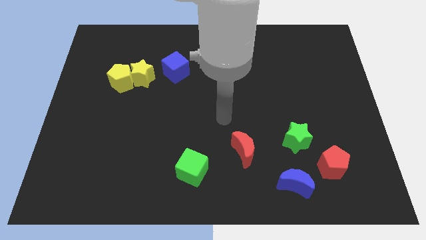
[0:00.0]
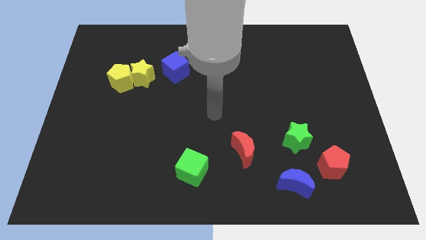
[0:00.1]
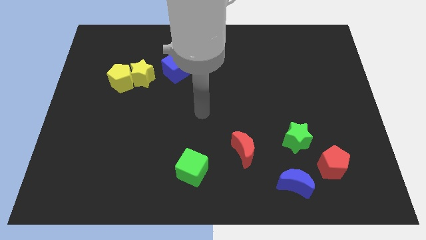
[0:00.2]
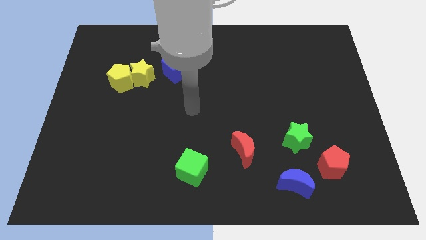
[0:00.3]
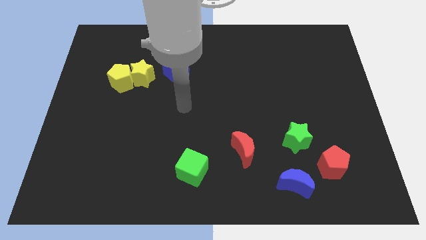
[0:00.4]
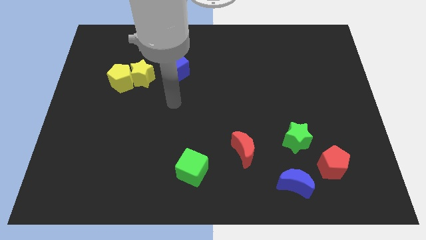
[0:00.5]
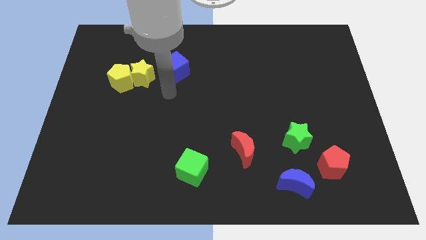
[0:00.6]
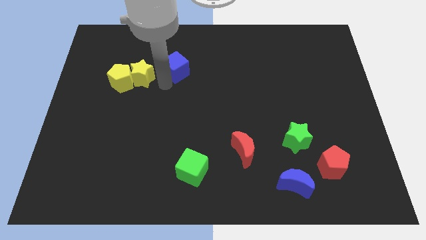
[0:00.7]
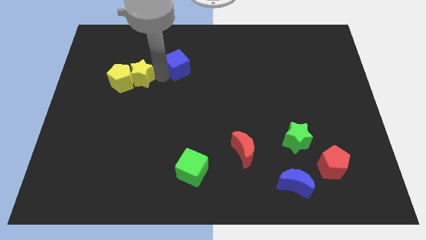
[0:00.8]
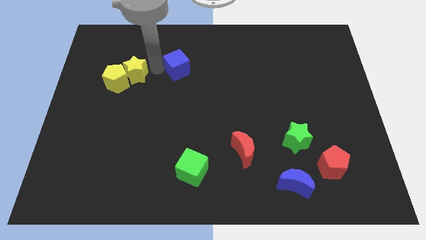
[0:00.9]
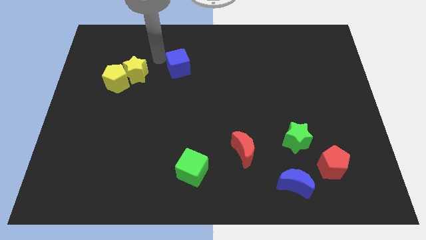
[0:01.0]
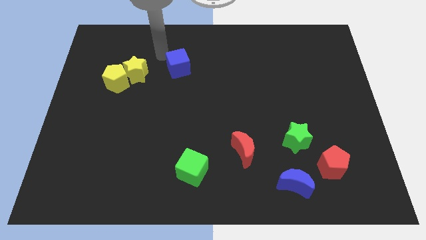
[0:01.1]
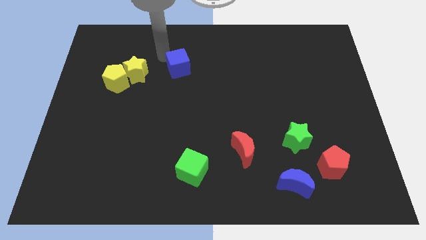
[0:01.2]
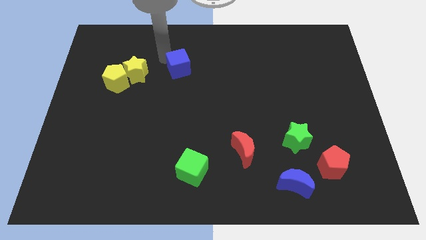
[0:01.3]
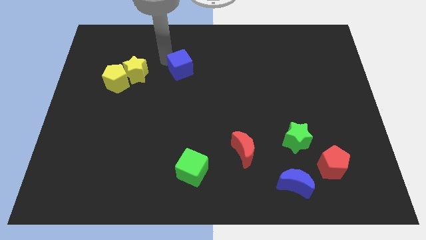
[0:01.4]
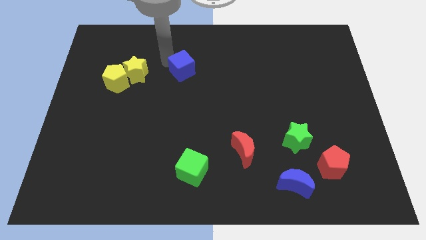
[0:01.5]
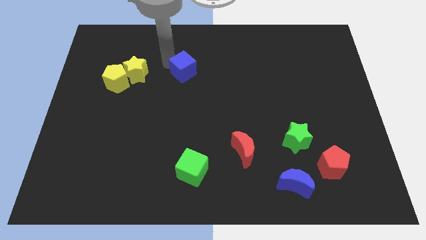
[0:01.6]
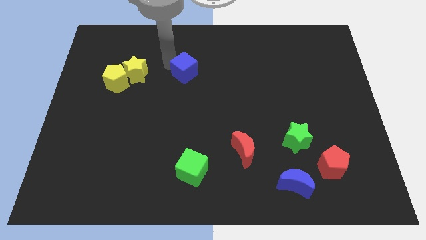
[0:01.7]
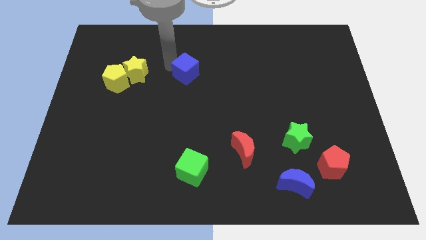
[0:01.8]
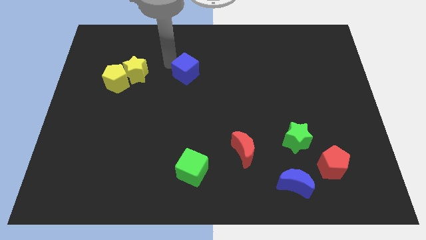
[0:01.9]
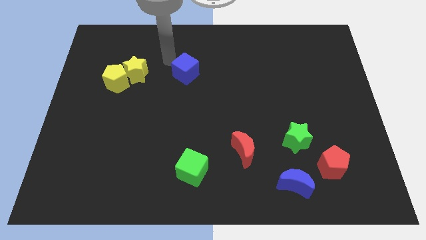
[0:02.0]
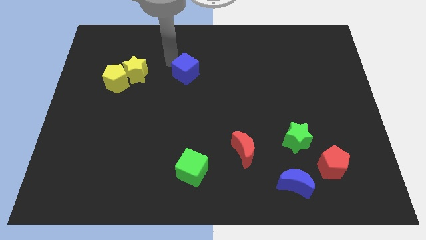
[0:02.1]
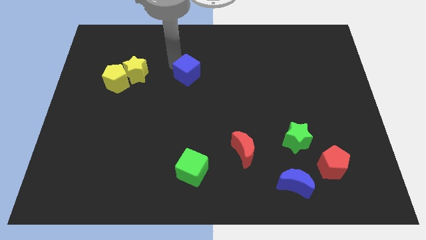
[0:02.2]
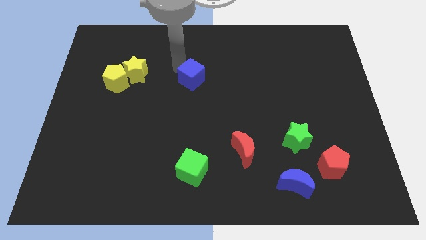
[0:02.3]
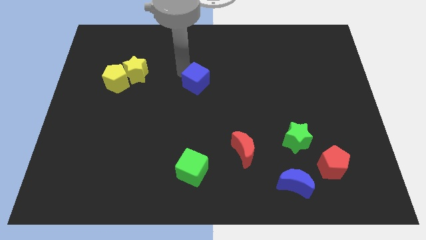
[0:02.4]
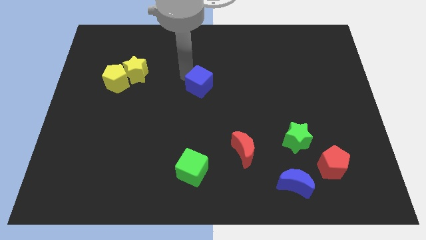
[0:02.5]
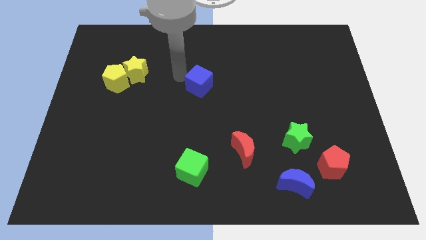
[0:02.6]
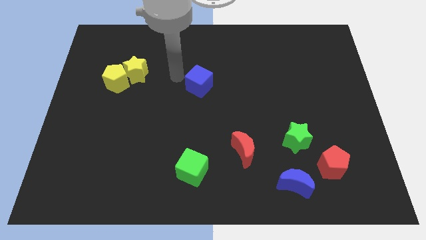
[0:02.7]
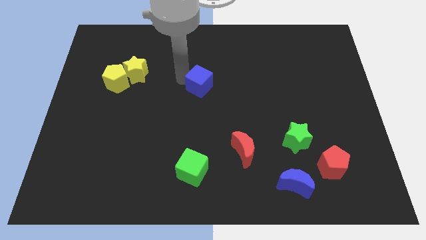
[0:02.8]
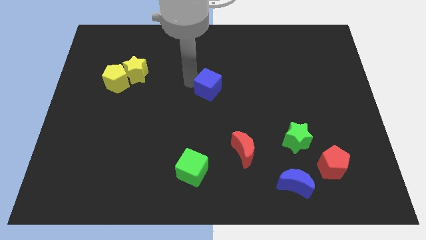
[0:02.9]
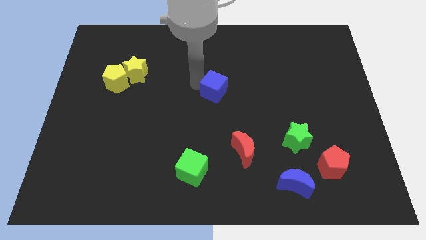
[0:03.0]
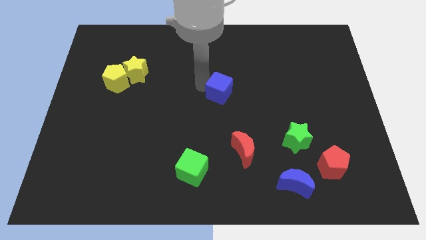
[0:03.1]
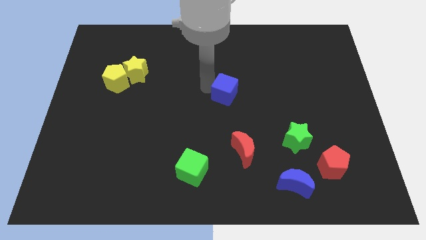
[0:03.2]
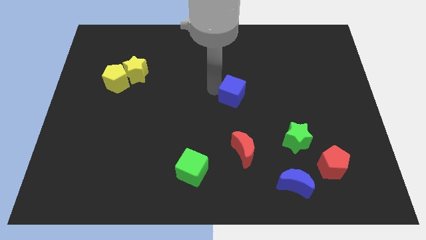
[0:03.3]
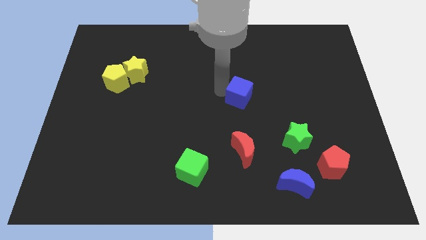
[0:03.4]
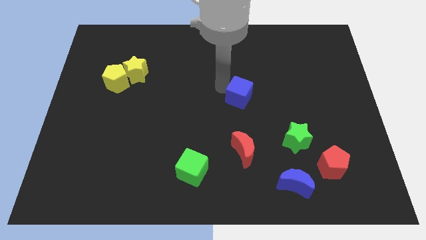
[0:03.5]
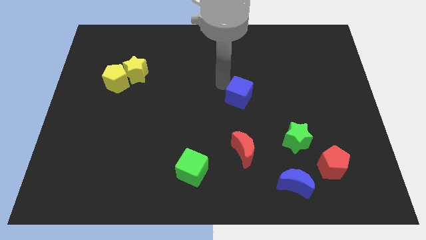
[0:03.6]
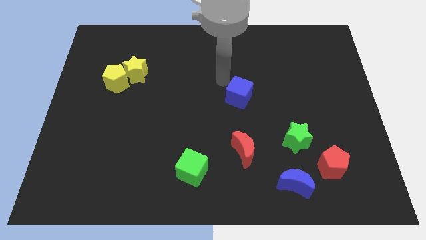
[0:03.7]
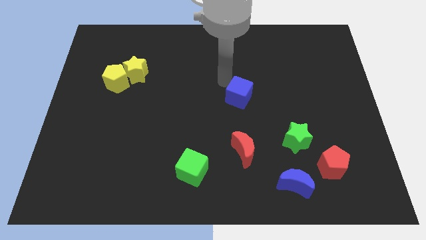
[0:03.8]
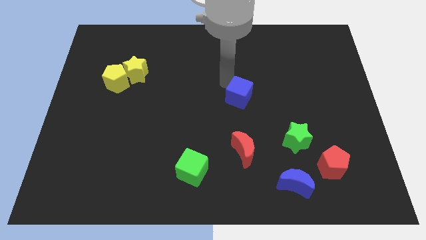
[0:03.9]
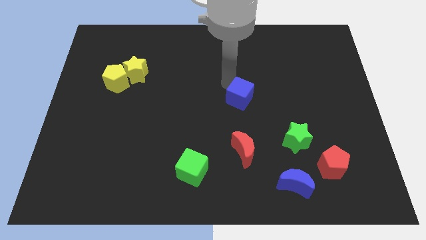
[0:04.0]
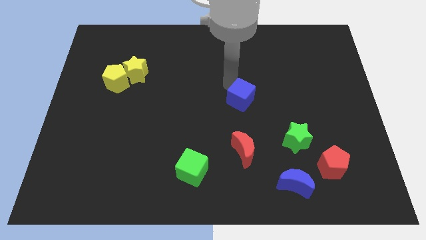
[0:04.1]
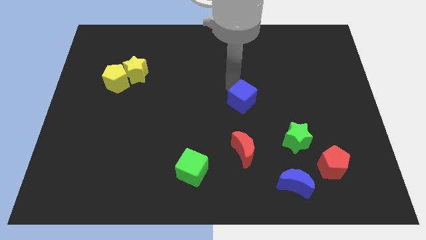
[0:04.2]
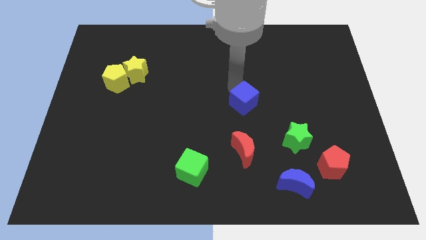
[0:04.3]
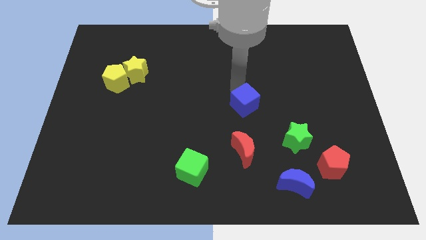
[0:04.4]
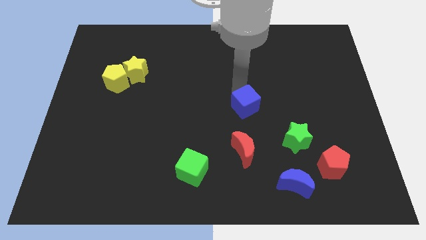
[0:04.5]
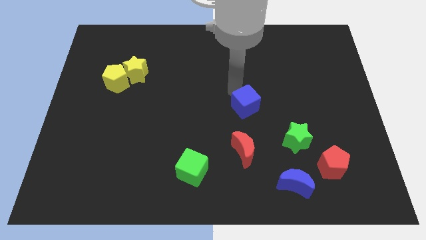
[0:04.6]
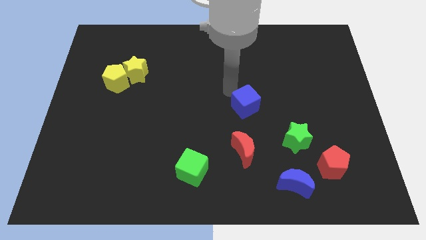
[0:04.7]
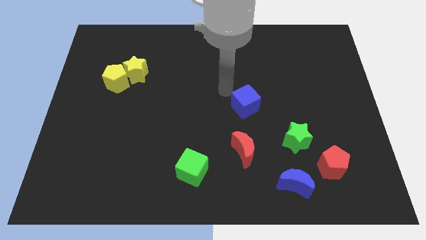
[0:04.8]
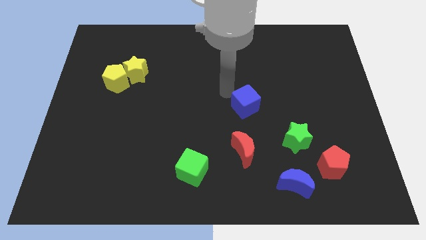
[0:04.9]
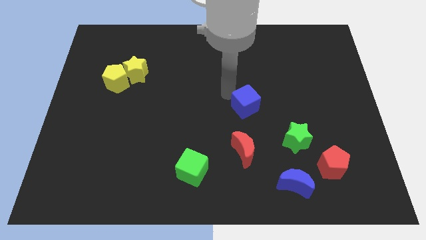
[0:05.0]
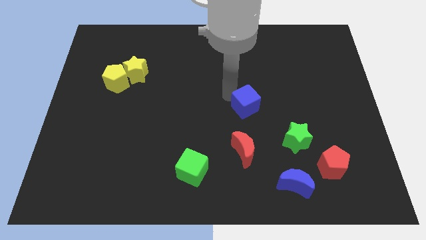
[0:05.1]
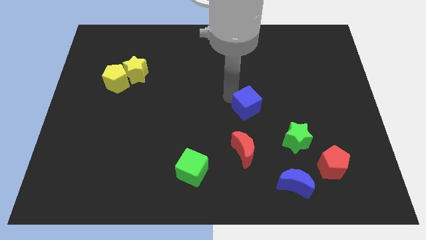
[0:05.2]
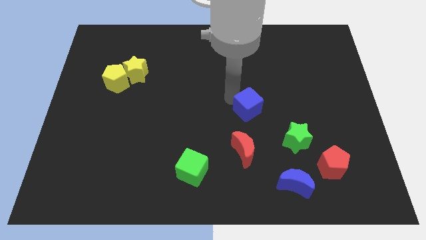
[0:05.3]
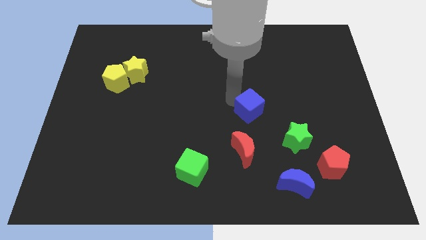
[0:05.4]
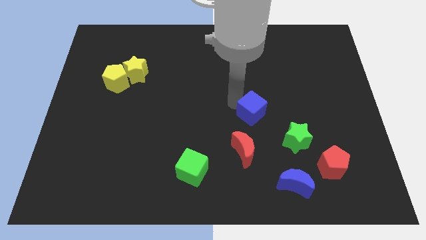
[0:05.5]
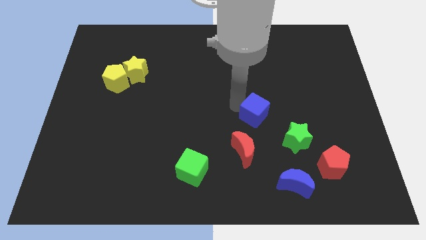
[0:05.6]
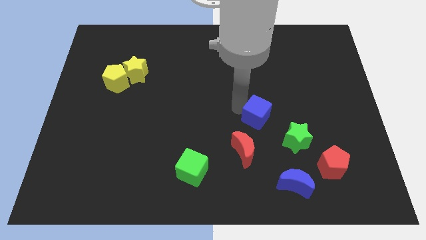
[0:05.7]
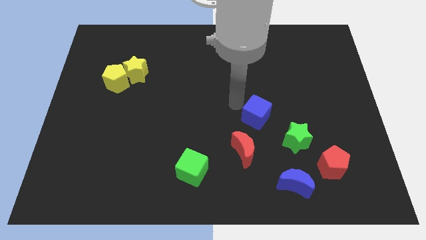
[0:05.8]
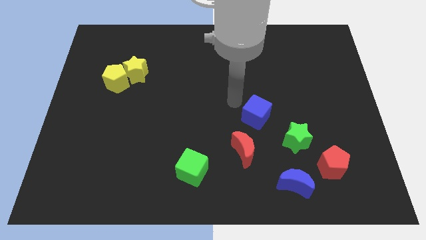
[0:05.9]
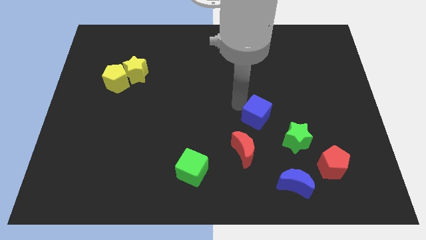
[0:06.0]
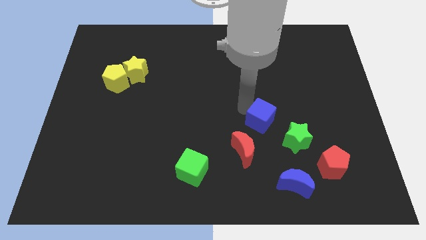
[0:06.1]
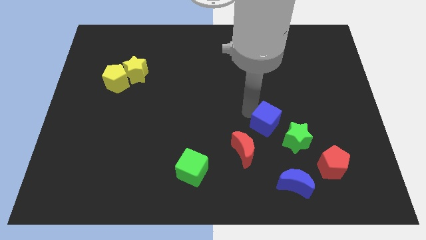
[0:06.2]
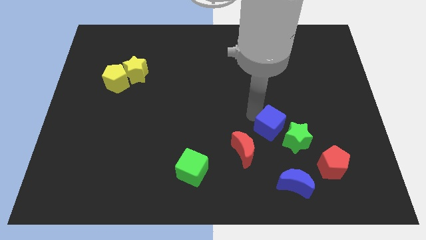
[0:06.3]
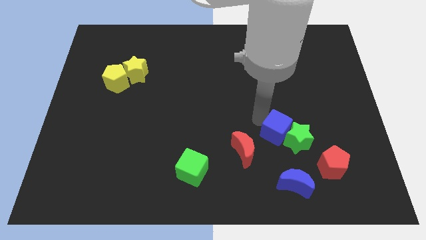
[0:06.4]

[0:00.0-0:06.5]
push the blue cube close to the green star

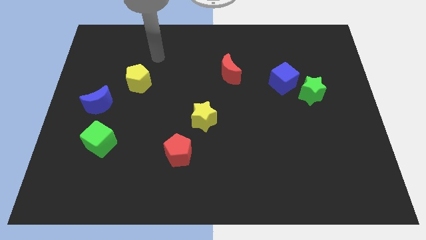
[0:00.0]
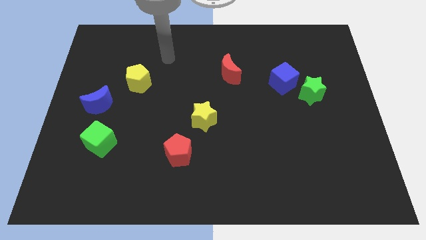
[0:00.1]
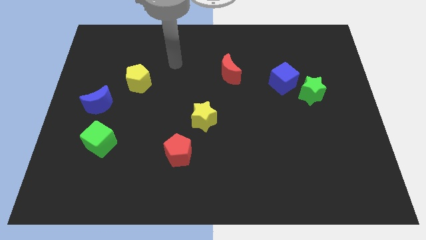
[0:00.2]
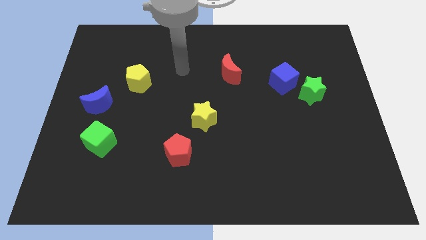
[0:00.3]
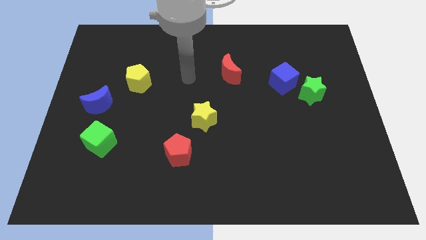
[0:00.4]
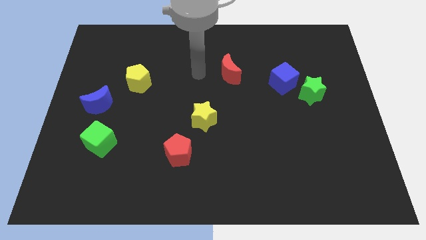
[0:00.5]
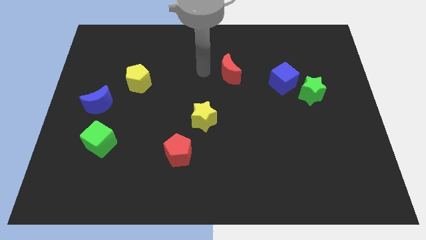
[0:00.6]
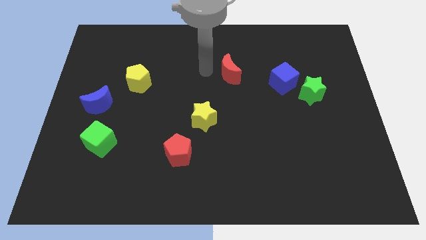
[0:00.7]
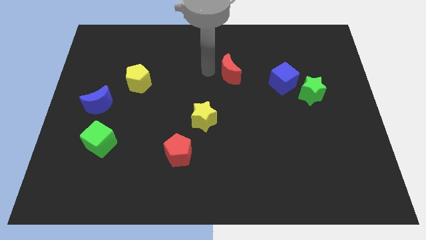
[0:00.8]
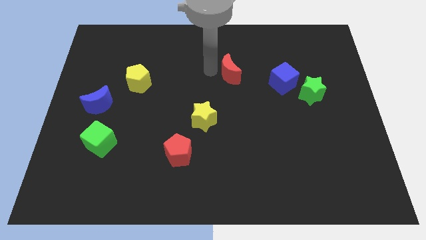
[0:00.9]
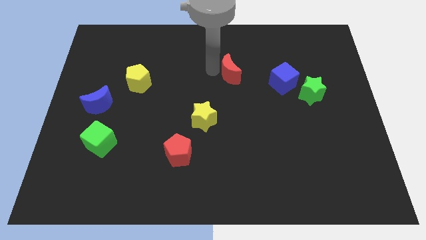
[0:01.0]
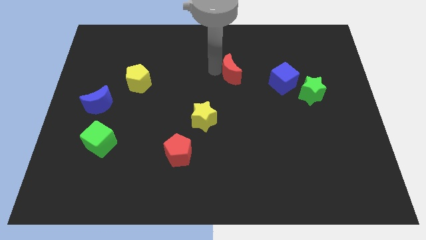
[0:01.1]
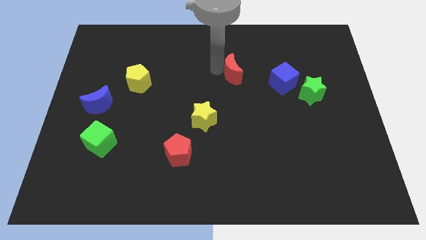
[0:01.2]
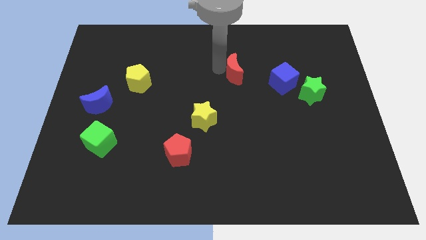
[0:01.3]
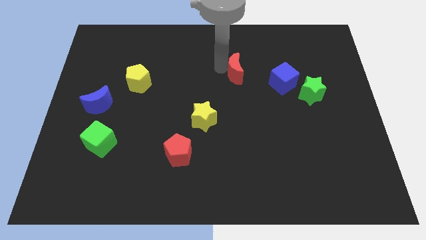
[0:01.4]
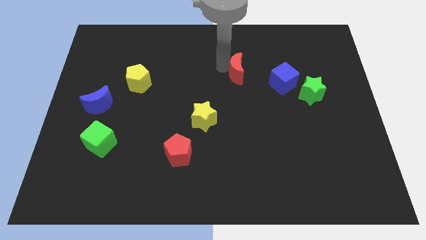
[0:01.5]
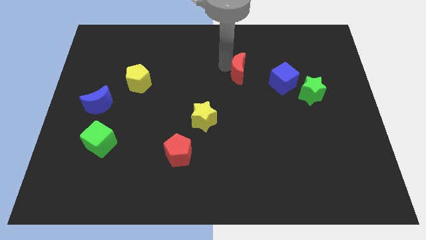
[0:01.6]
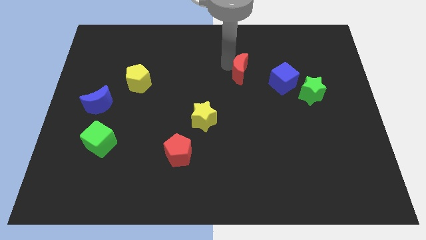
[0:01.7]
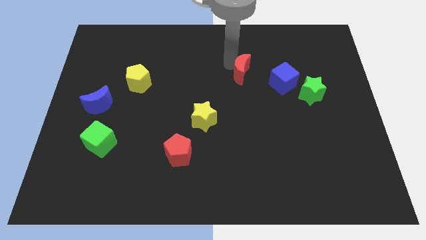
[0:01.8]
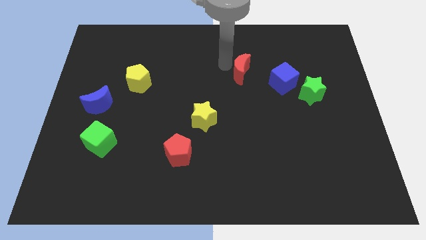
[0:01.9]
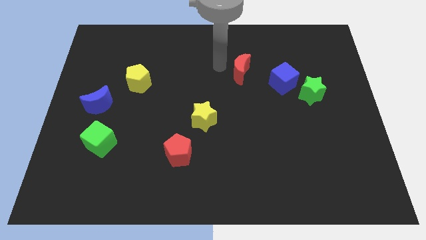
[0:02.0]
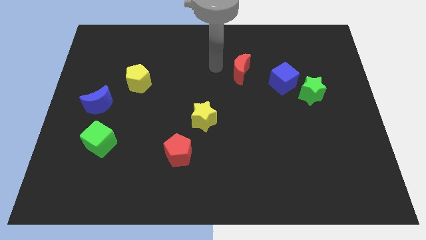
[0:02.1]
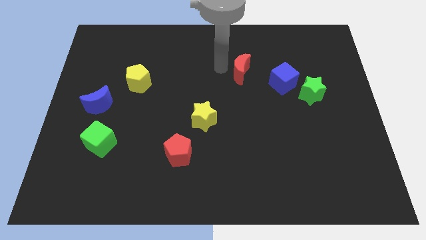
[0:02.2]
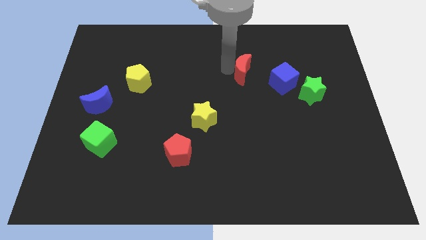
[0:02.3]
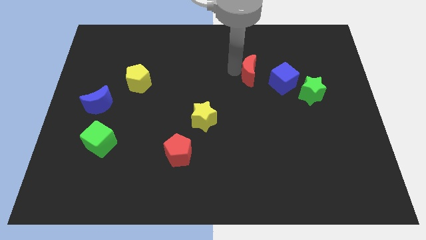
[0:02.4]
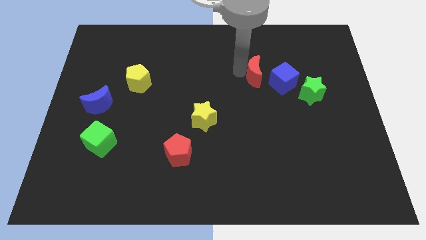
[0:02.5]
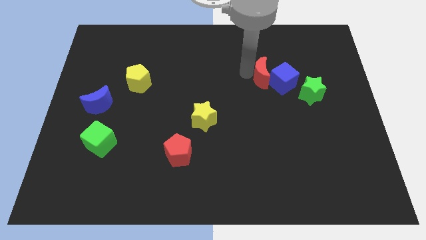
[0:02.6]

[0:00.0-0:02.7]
push the red moon to the blue cube
